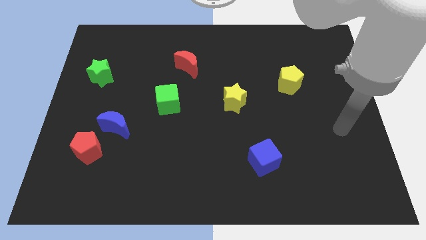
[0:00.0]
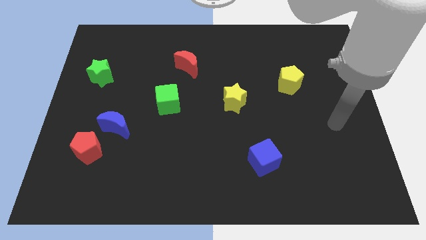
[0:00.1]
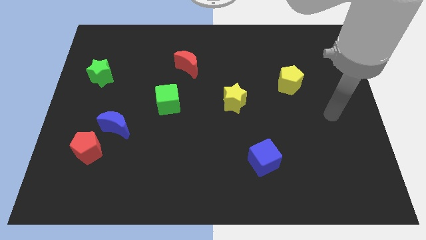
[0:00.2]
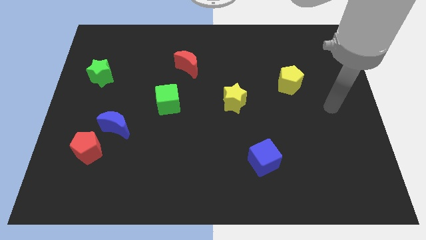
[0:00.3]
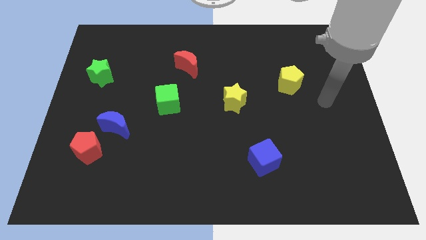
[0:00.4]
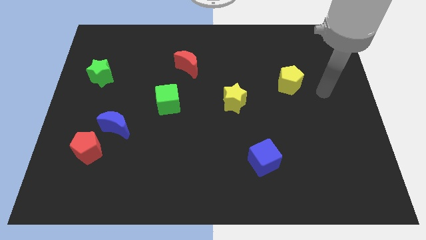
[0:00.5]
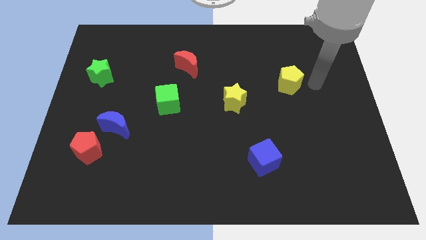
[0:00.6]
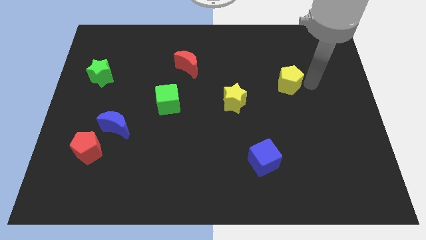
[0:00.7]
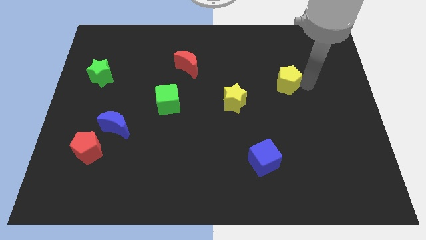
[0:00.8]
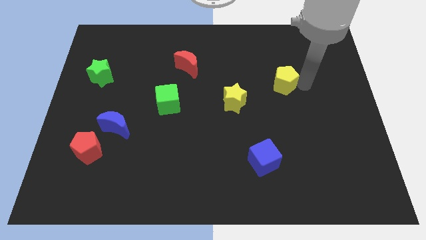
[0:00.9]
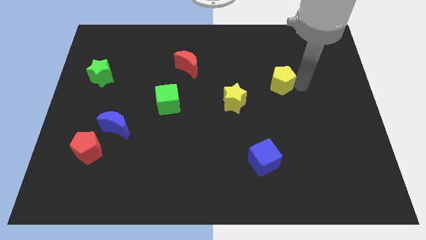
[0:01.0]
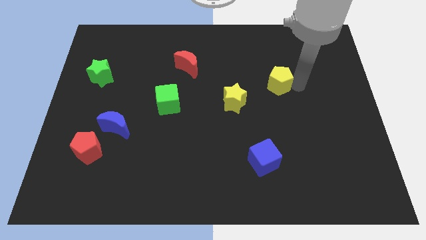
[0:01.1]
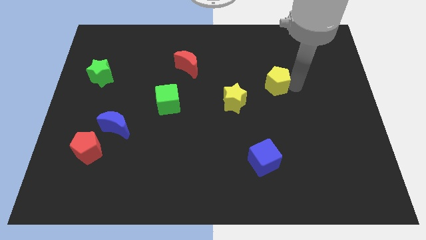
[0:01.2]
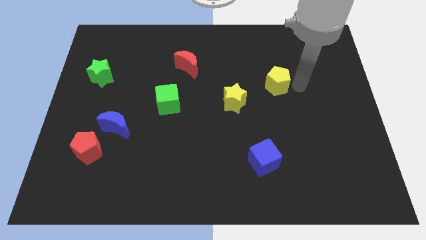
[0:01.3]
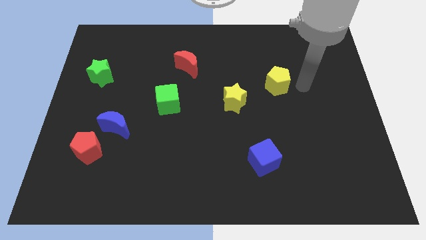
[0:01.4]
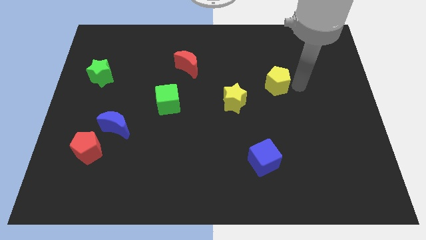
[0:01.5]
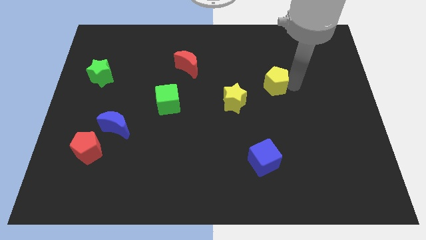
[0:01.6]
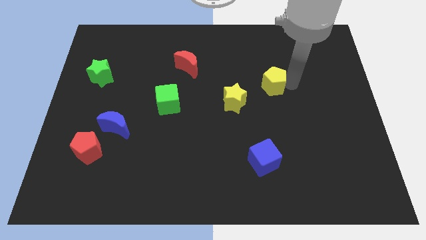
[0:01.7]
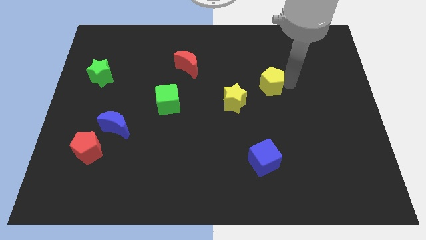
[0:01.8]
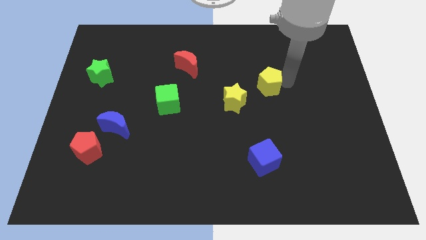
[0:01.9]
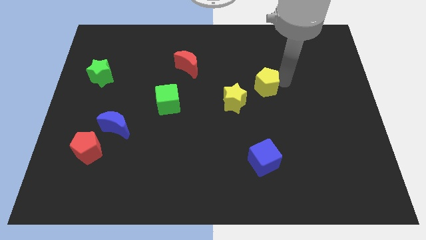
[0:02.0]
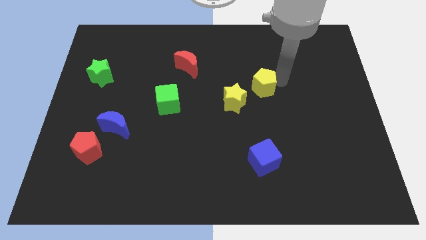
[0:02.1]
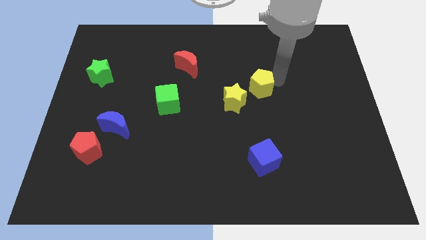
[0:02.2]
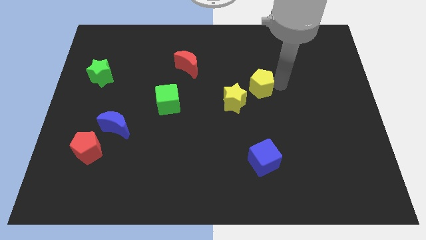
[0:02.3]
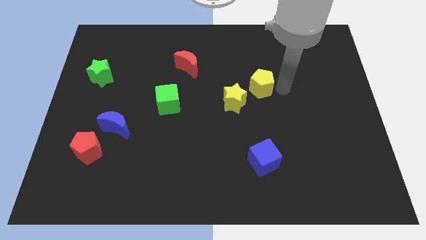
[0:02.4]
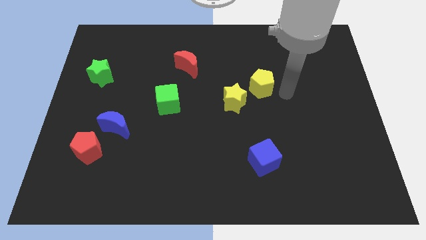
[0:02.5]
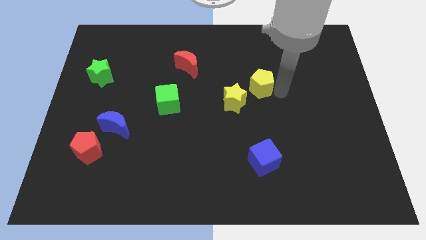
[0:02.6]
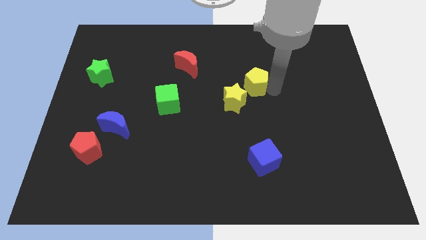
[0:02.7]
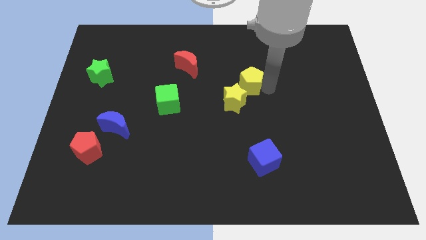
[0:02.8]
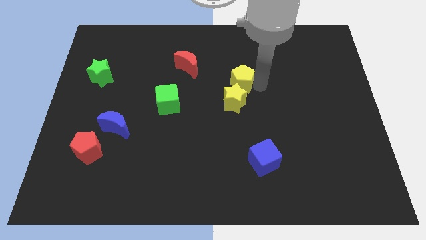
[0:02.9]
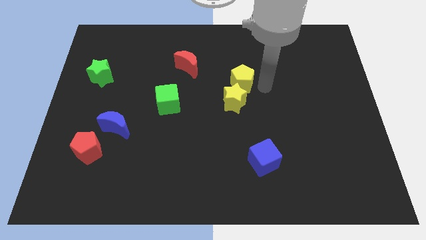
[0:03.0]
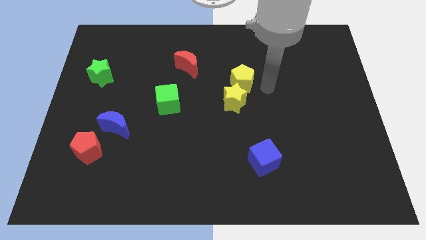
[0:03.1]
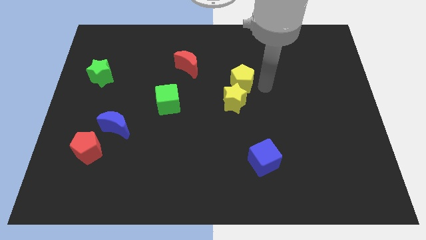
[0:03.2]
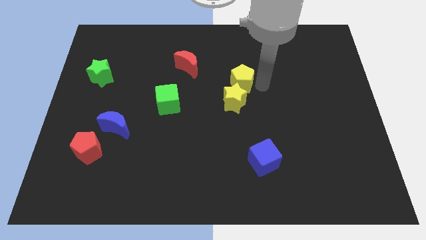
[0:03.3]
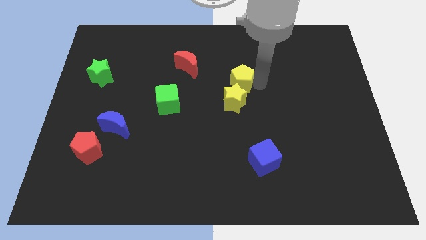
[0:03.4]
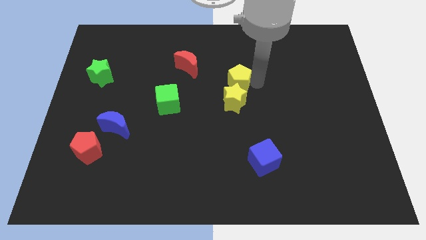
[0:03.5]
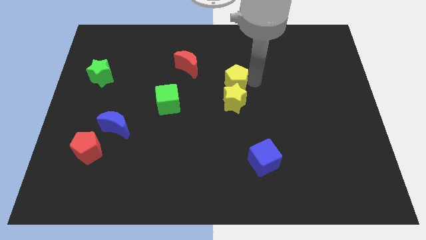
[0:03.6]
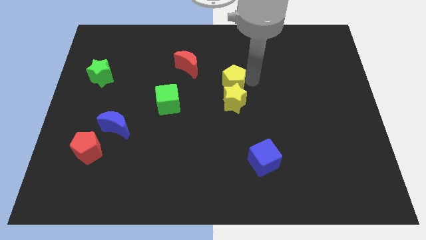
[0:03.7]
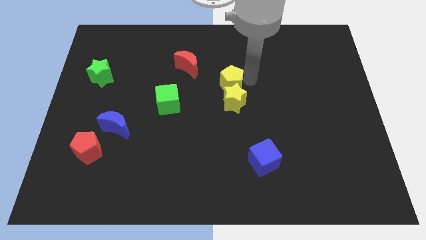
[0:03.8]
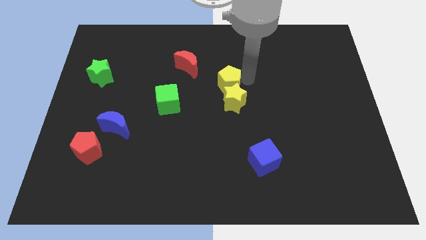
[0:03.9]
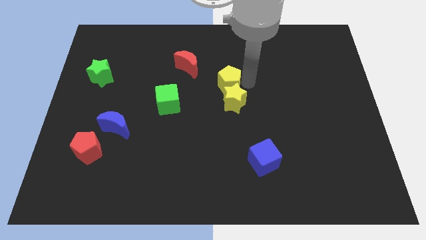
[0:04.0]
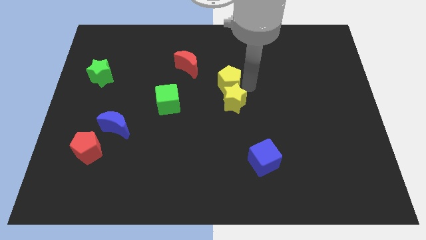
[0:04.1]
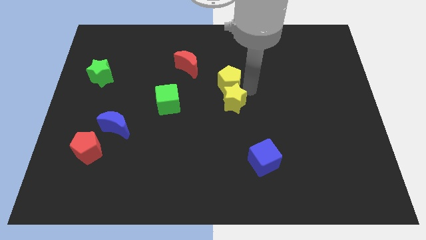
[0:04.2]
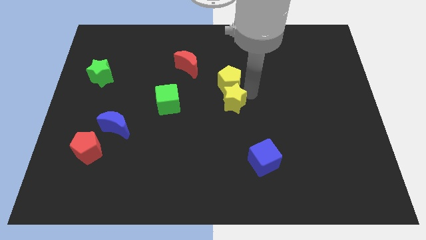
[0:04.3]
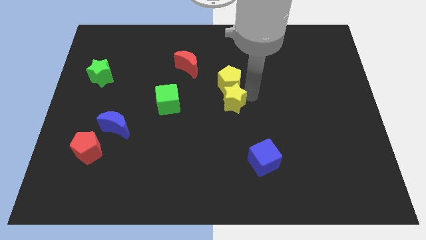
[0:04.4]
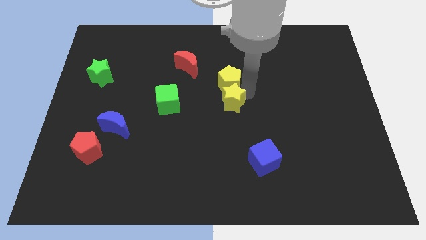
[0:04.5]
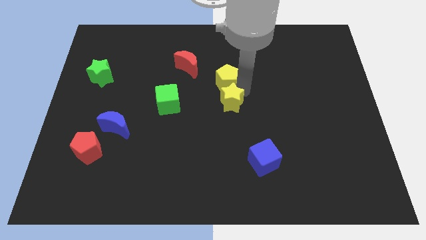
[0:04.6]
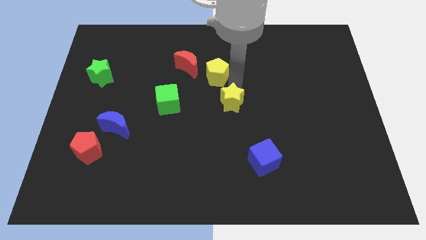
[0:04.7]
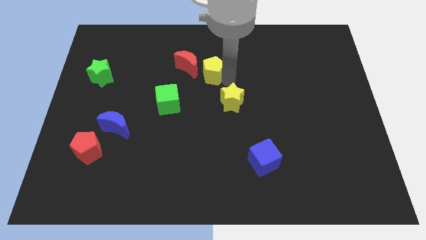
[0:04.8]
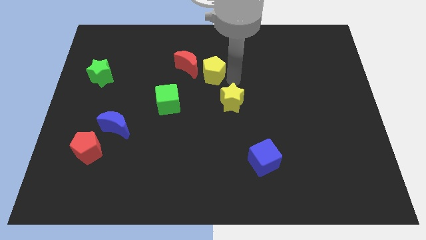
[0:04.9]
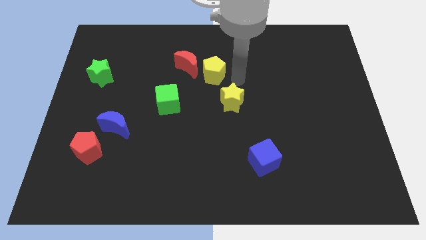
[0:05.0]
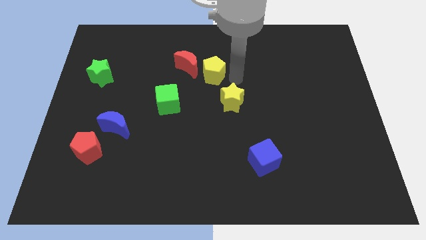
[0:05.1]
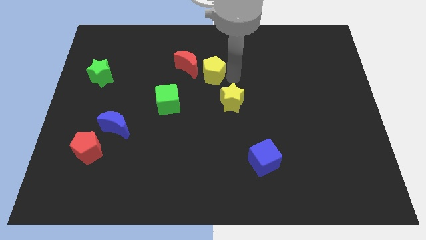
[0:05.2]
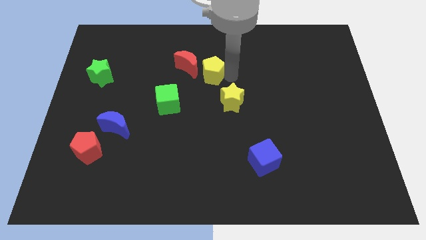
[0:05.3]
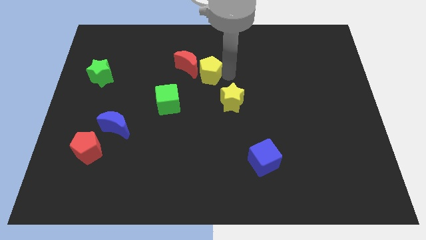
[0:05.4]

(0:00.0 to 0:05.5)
move the yellow pentagon to the red moon
